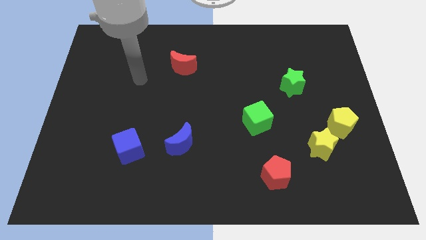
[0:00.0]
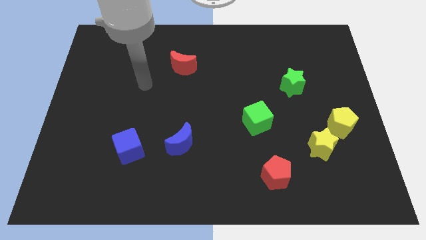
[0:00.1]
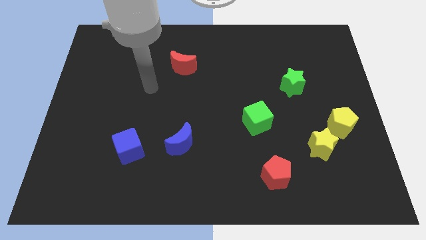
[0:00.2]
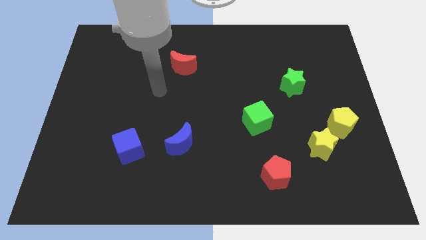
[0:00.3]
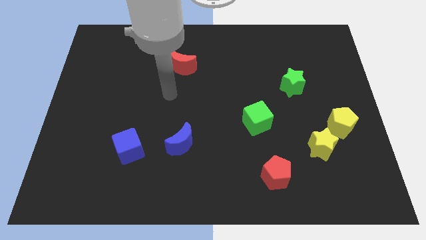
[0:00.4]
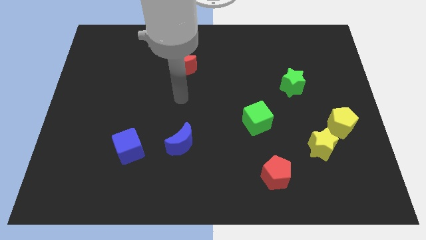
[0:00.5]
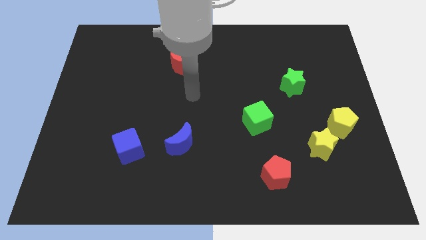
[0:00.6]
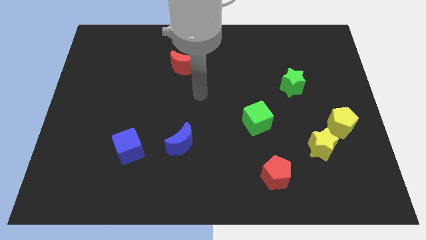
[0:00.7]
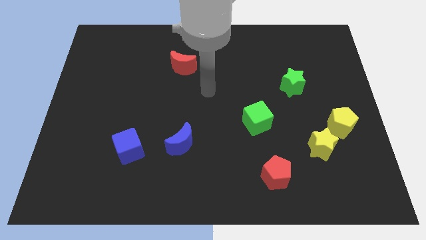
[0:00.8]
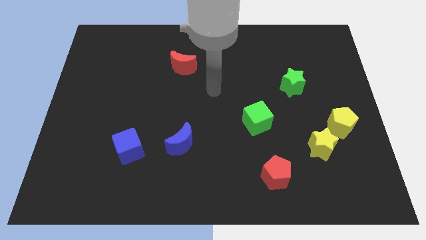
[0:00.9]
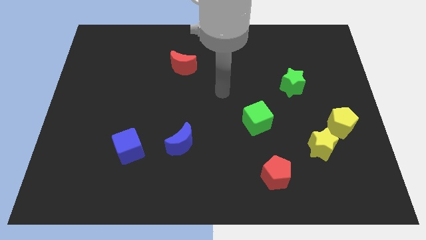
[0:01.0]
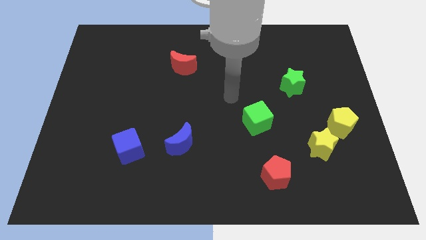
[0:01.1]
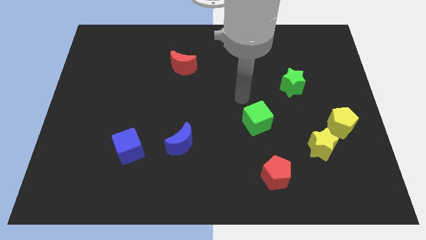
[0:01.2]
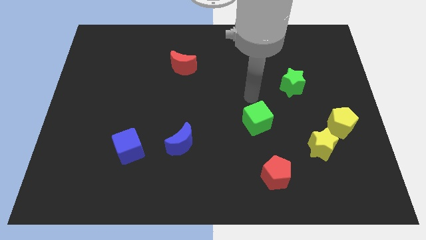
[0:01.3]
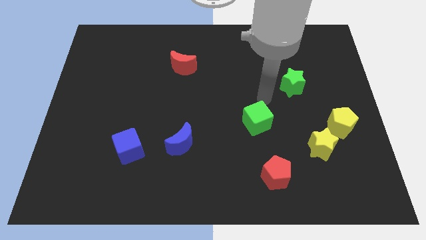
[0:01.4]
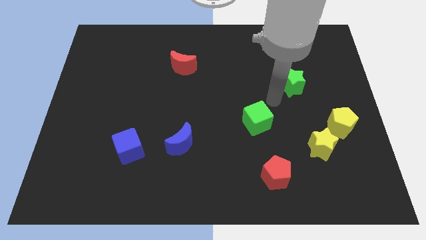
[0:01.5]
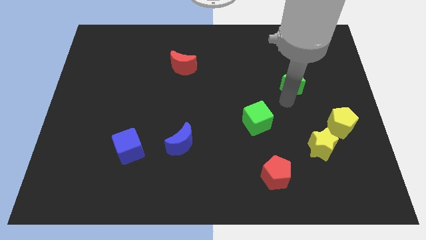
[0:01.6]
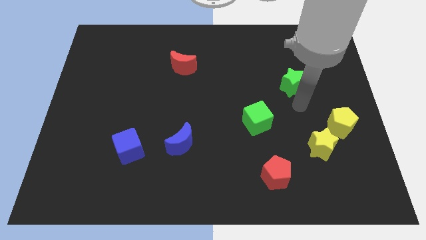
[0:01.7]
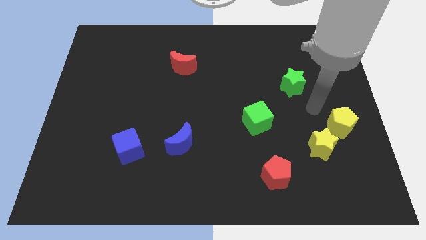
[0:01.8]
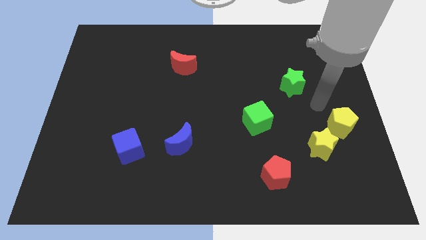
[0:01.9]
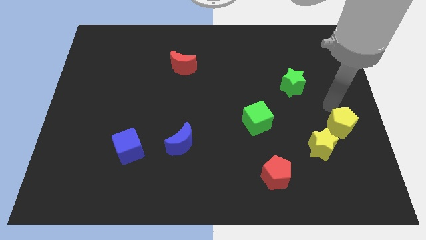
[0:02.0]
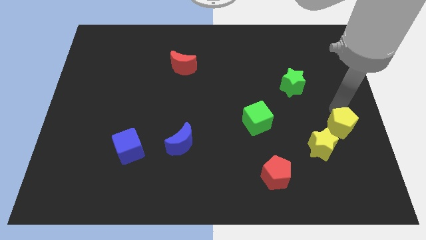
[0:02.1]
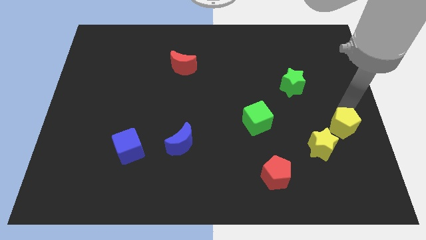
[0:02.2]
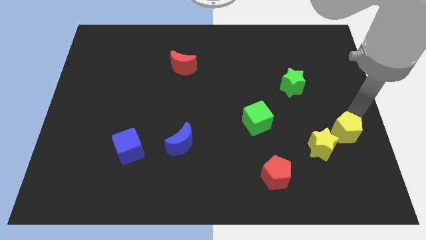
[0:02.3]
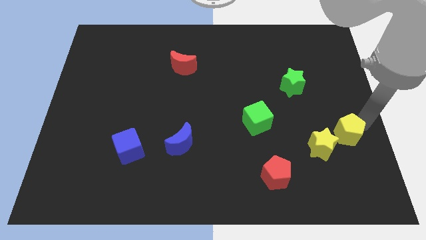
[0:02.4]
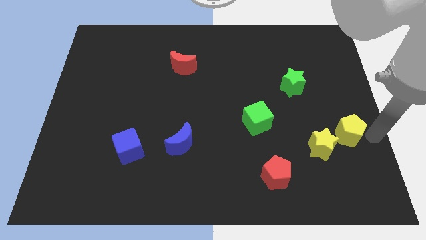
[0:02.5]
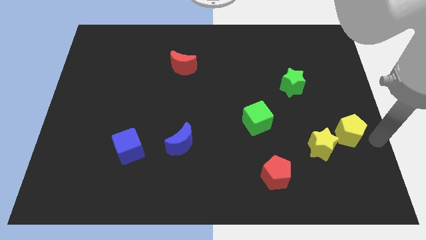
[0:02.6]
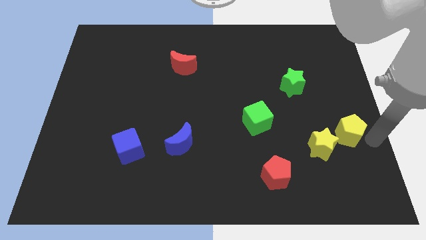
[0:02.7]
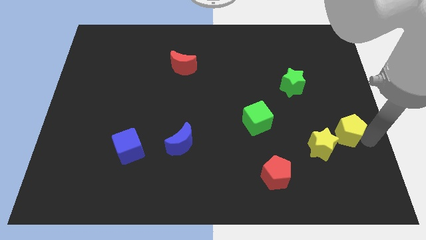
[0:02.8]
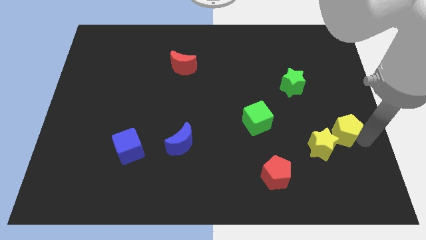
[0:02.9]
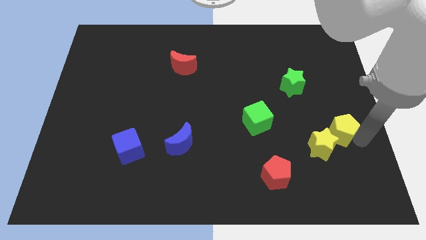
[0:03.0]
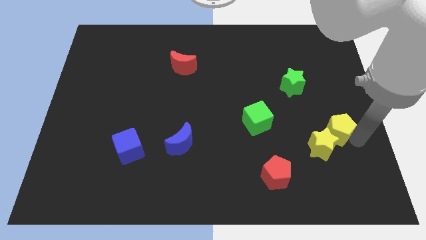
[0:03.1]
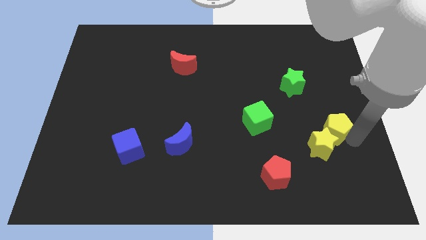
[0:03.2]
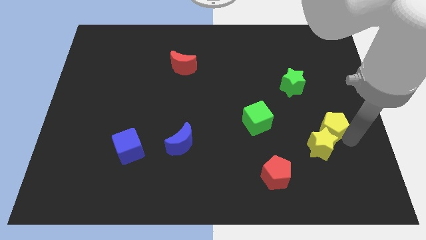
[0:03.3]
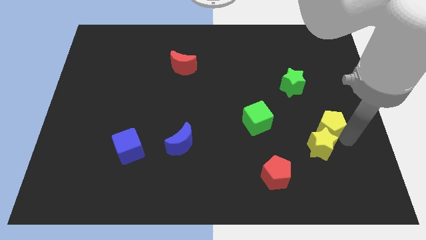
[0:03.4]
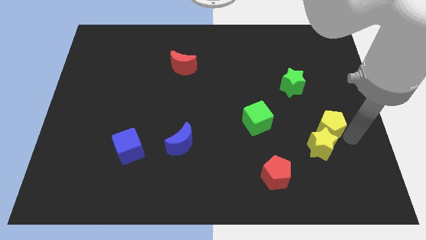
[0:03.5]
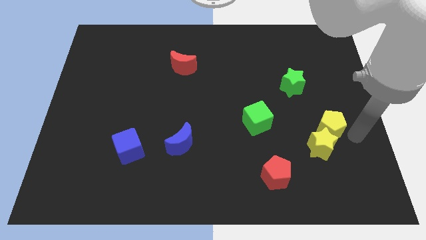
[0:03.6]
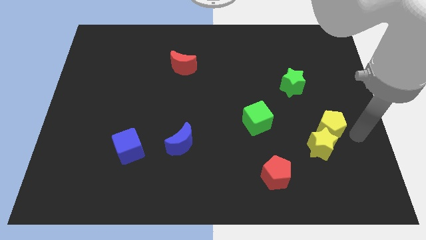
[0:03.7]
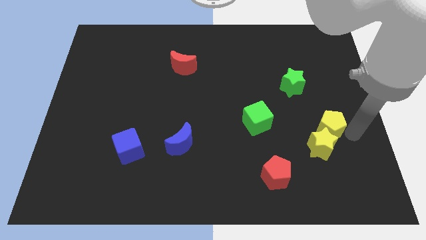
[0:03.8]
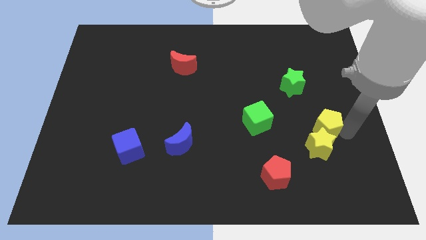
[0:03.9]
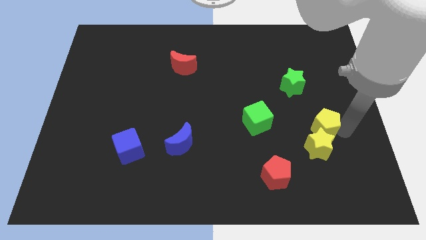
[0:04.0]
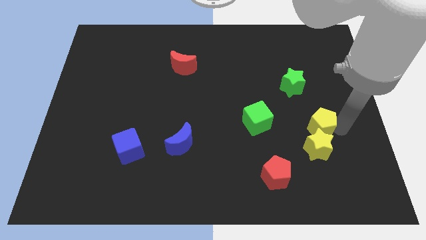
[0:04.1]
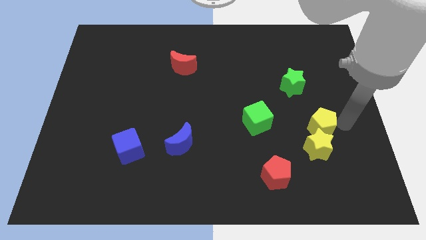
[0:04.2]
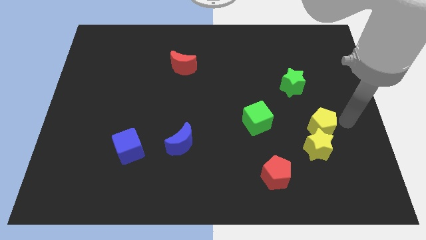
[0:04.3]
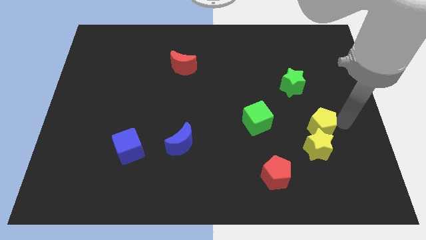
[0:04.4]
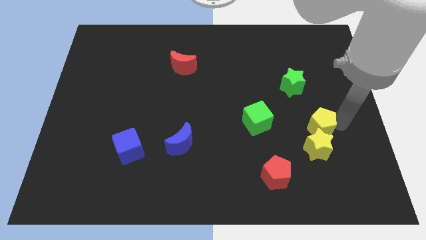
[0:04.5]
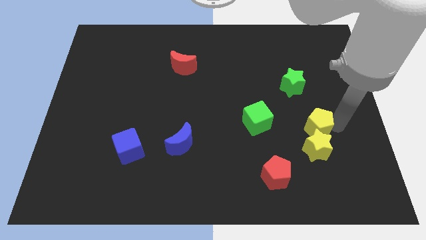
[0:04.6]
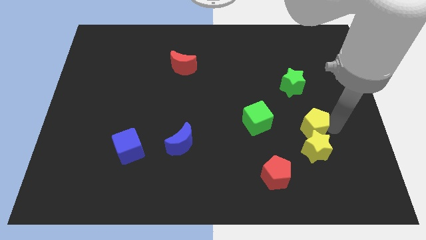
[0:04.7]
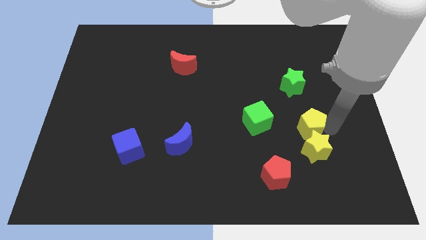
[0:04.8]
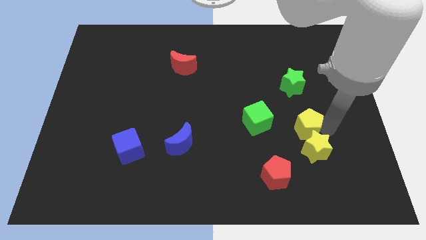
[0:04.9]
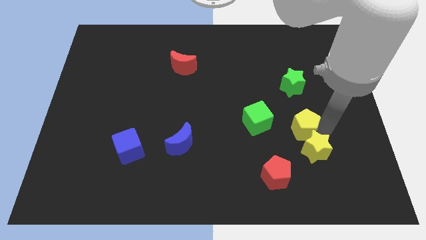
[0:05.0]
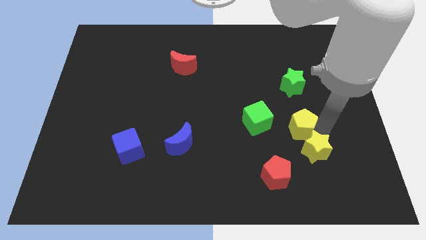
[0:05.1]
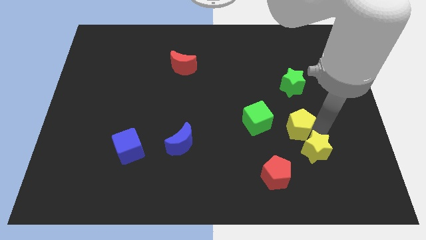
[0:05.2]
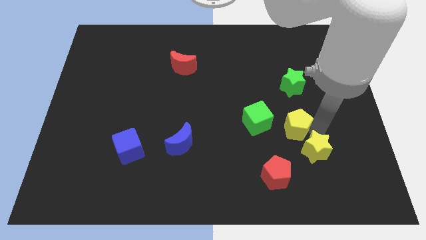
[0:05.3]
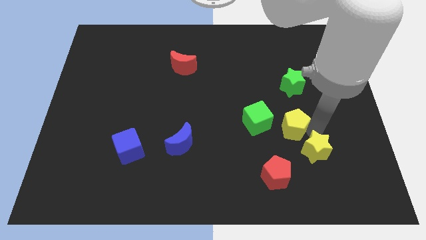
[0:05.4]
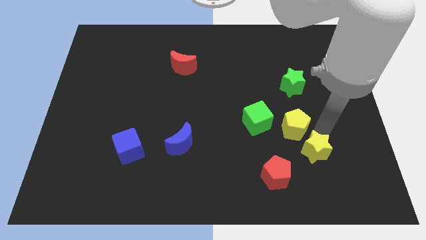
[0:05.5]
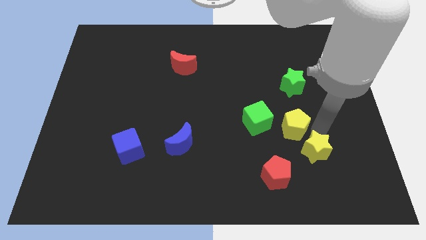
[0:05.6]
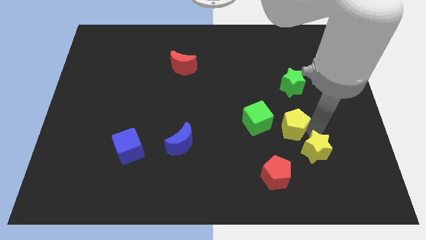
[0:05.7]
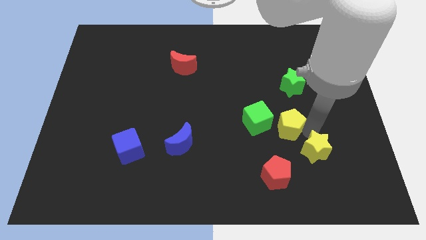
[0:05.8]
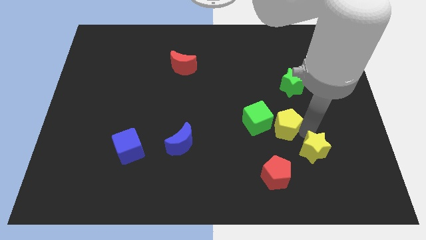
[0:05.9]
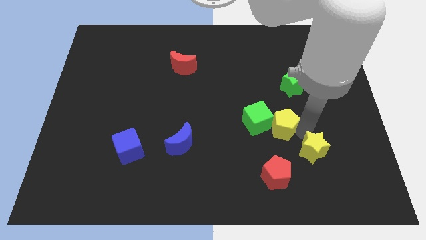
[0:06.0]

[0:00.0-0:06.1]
put the yellow pentagon next to the green cube
